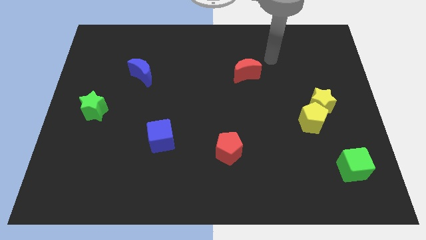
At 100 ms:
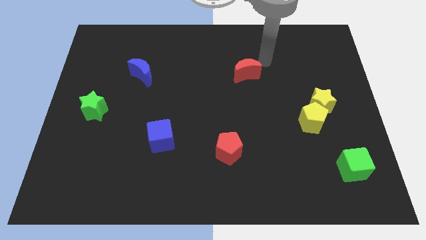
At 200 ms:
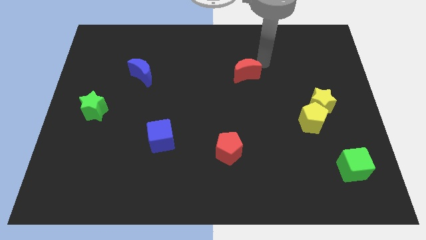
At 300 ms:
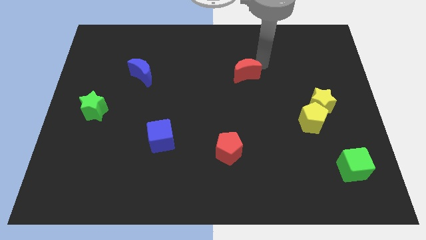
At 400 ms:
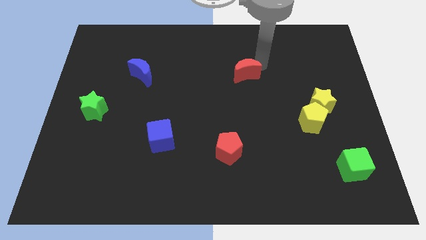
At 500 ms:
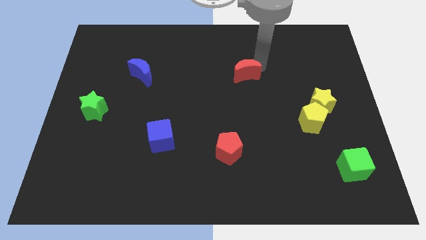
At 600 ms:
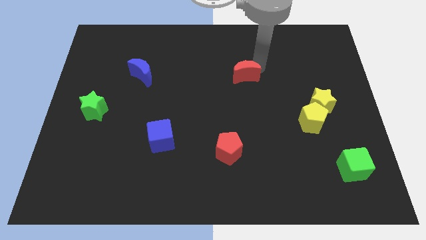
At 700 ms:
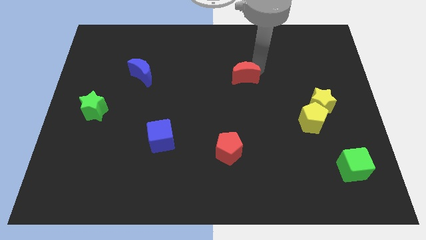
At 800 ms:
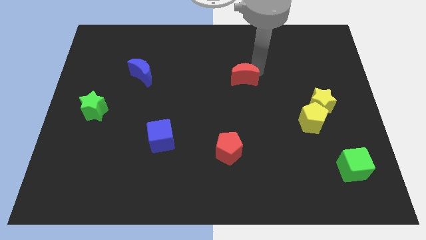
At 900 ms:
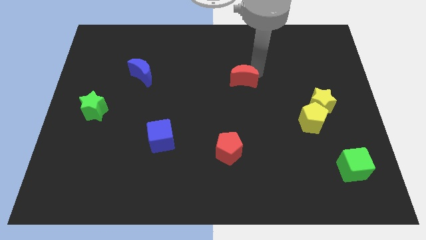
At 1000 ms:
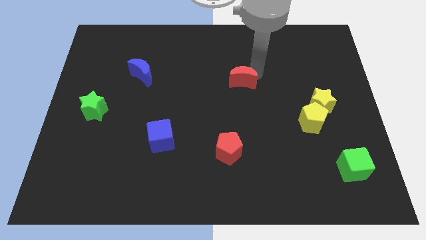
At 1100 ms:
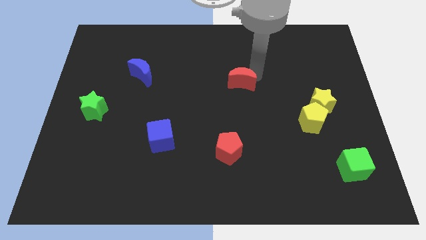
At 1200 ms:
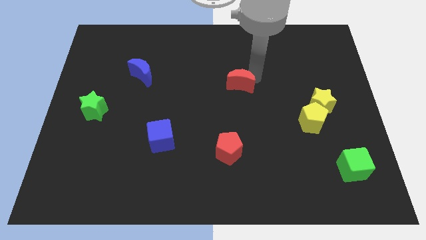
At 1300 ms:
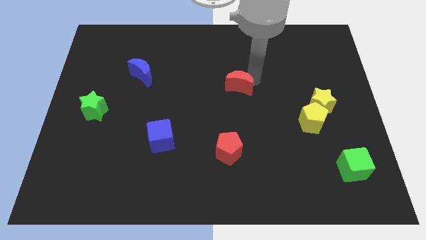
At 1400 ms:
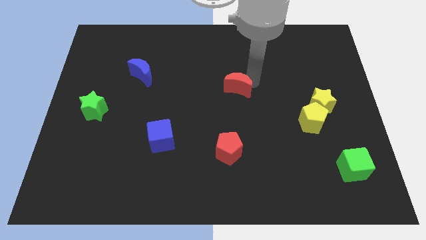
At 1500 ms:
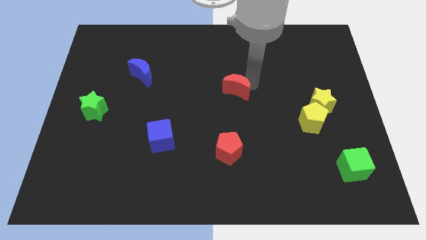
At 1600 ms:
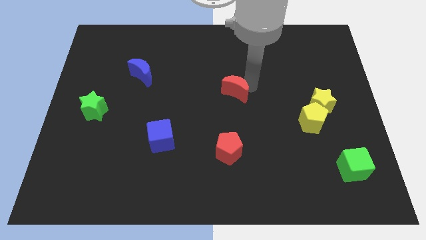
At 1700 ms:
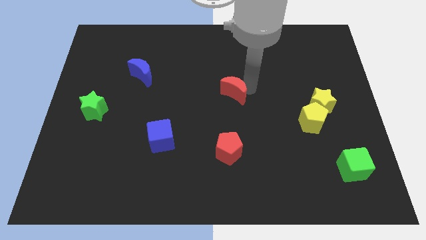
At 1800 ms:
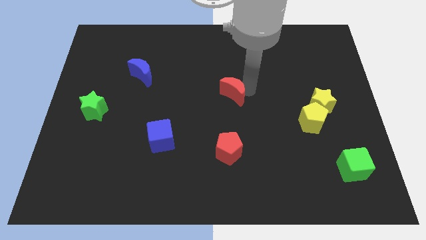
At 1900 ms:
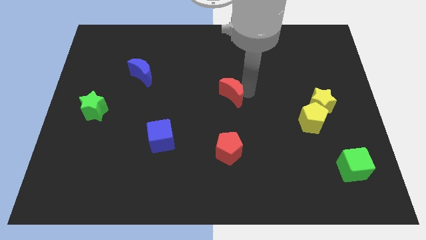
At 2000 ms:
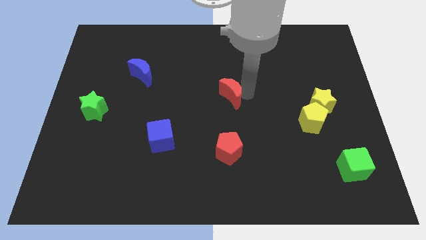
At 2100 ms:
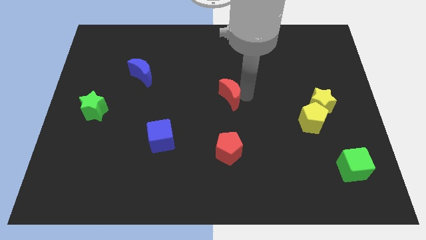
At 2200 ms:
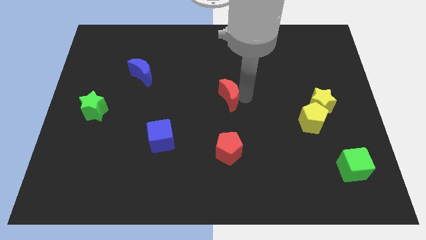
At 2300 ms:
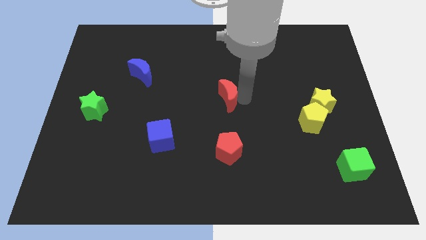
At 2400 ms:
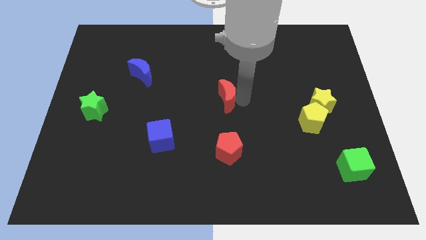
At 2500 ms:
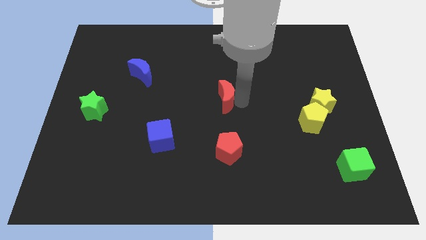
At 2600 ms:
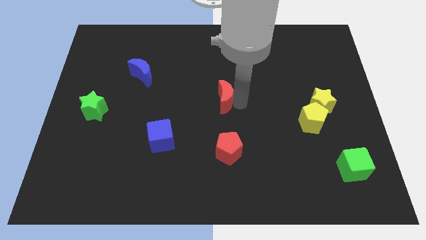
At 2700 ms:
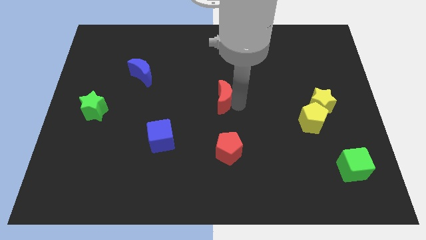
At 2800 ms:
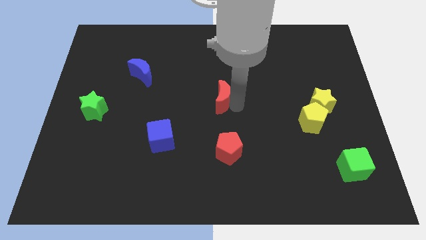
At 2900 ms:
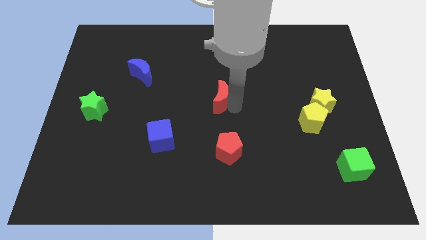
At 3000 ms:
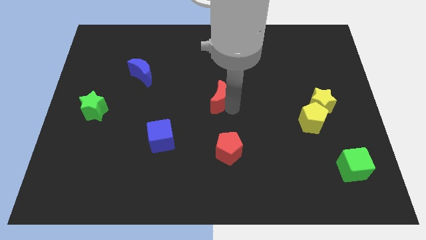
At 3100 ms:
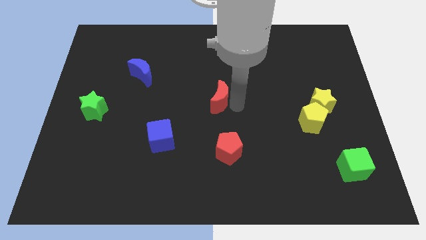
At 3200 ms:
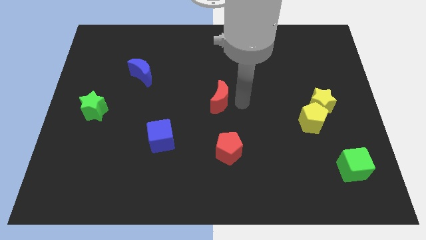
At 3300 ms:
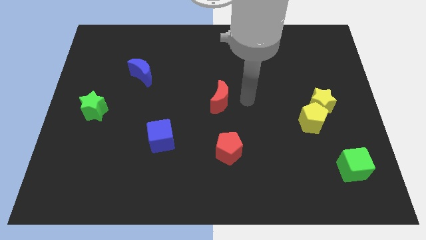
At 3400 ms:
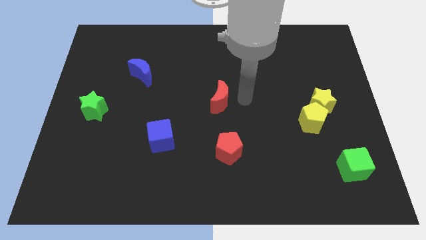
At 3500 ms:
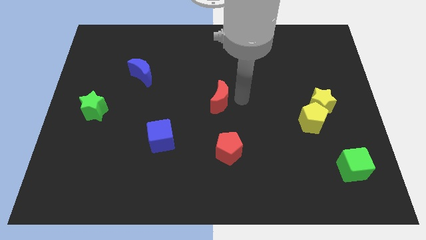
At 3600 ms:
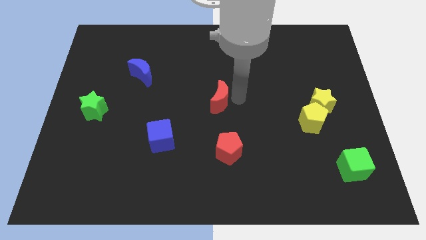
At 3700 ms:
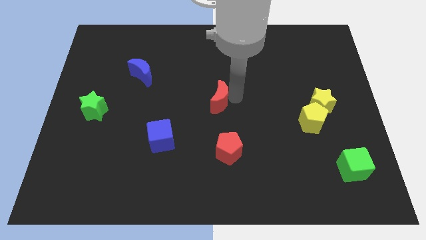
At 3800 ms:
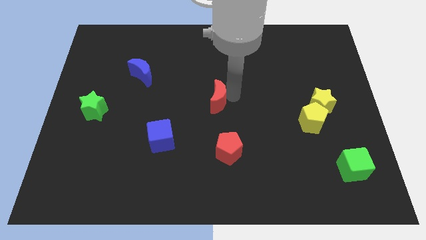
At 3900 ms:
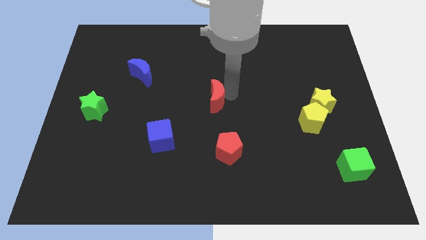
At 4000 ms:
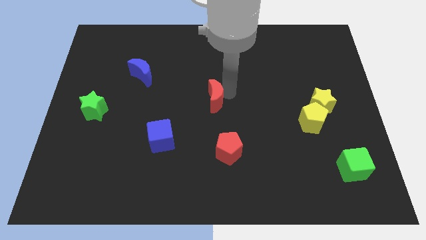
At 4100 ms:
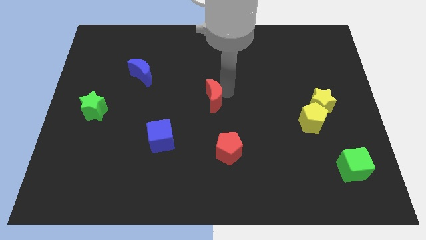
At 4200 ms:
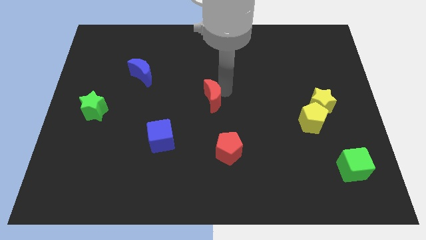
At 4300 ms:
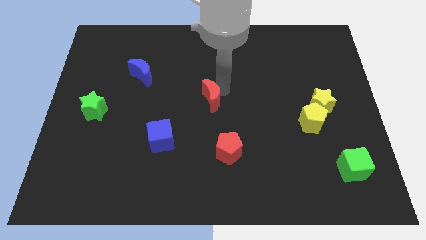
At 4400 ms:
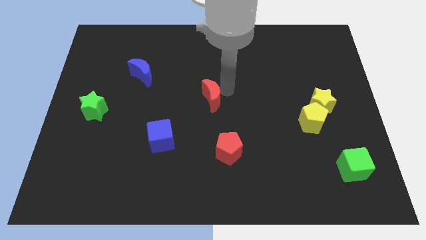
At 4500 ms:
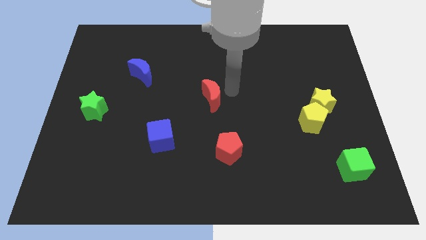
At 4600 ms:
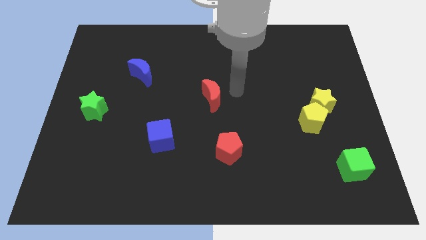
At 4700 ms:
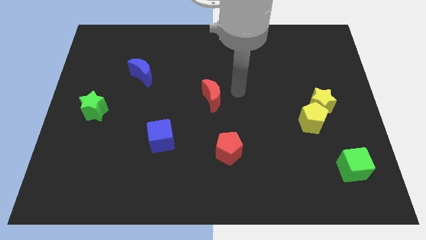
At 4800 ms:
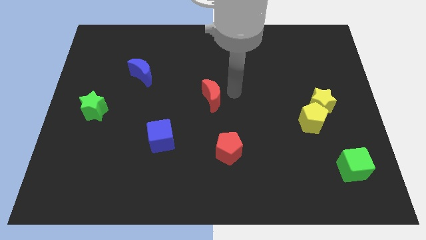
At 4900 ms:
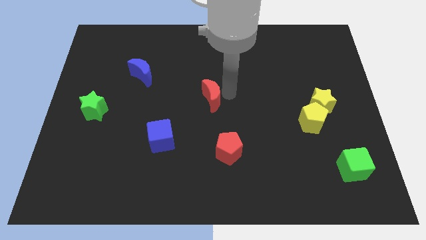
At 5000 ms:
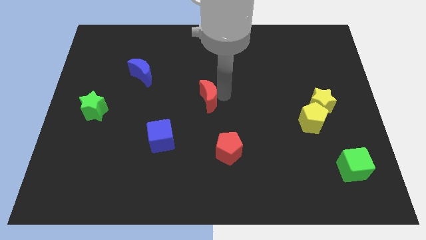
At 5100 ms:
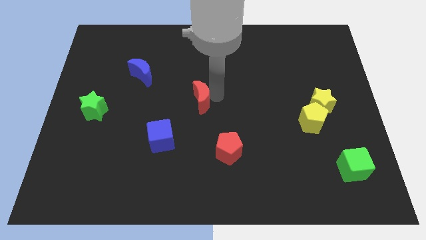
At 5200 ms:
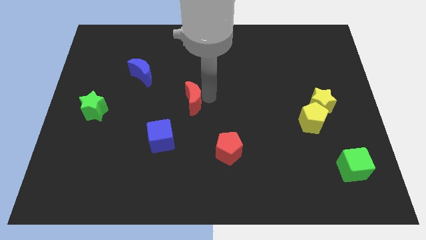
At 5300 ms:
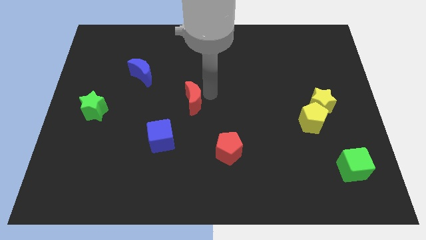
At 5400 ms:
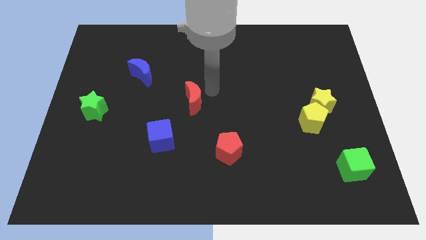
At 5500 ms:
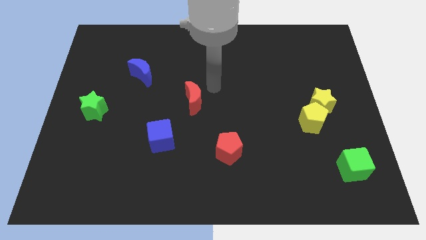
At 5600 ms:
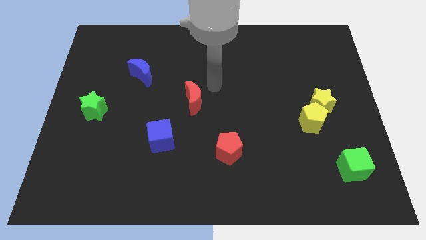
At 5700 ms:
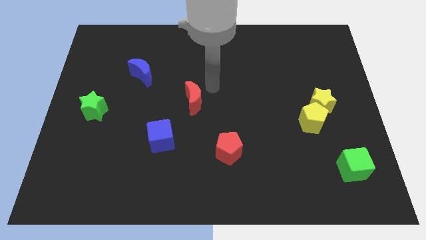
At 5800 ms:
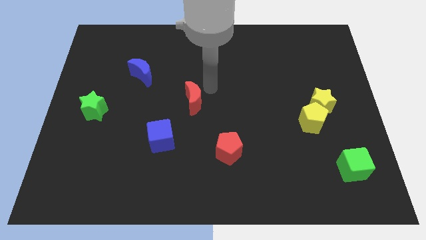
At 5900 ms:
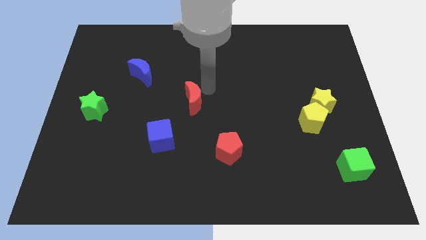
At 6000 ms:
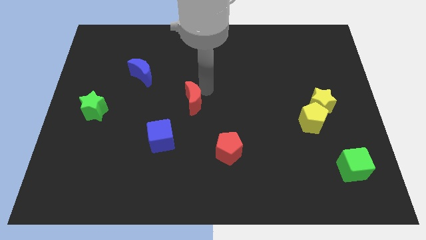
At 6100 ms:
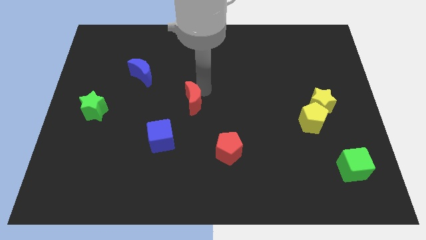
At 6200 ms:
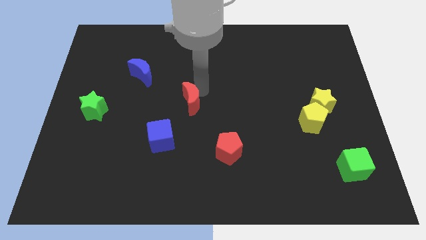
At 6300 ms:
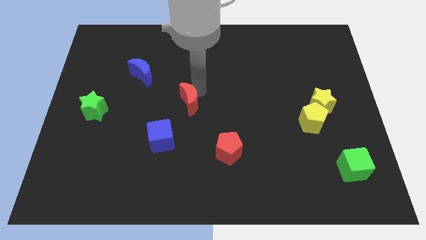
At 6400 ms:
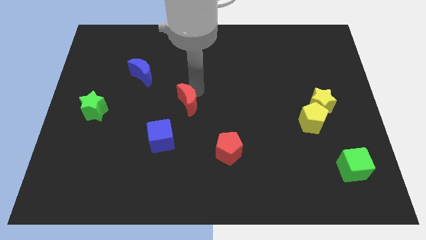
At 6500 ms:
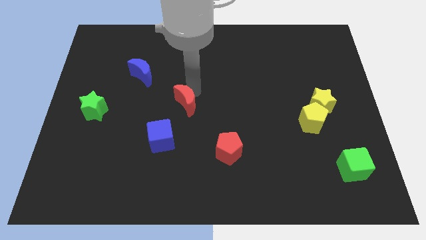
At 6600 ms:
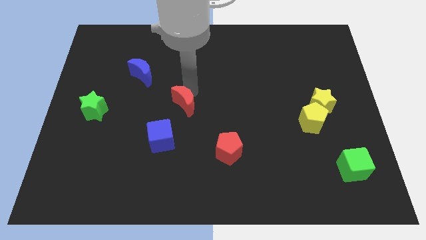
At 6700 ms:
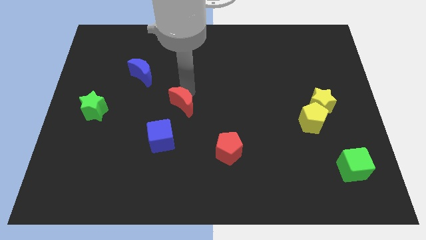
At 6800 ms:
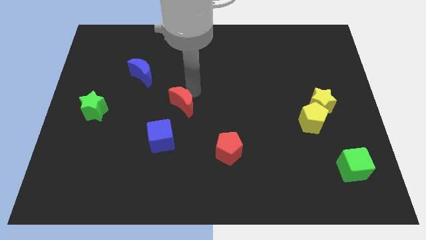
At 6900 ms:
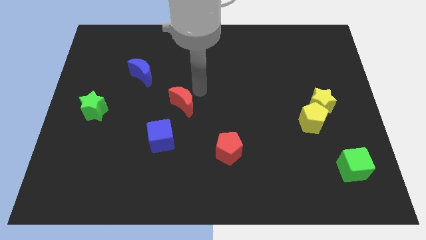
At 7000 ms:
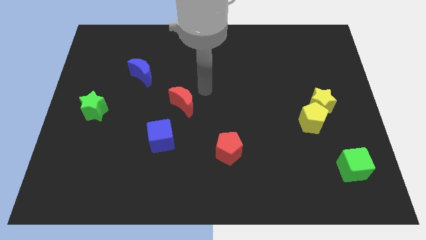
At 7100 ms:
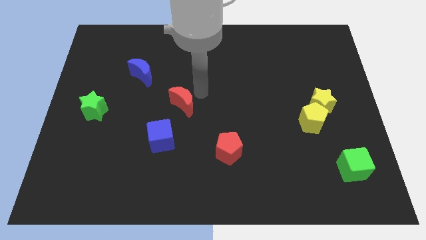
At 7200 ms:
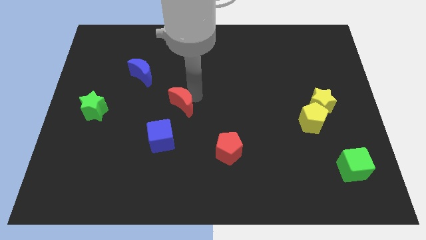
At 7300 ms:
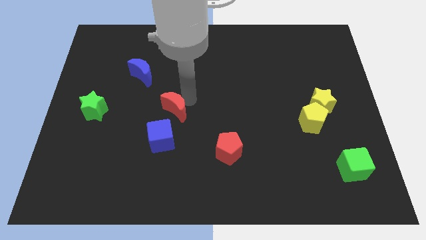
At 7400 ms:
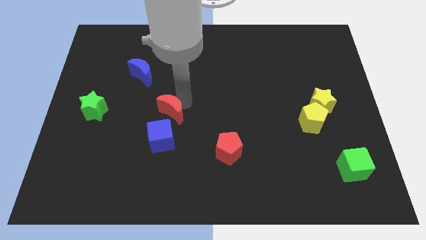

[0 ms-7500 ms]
push the red moon downwards and left

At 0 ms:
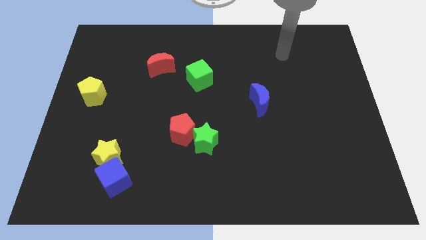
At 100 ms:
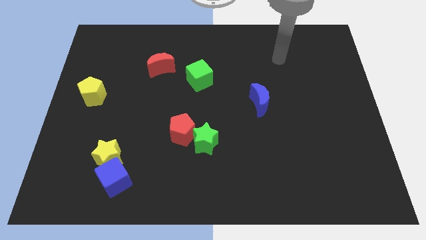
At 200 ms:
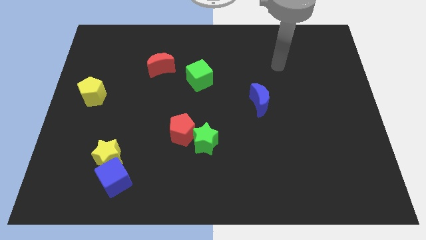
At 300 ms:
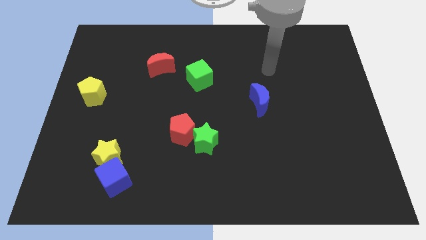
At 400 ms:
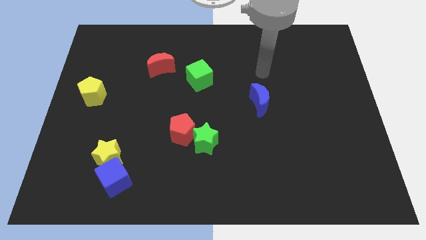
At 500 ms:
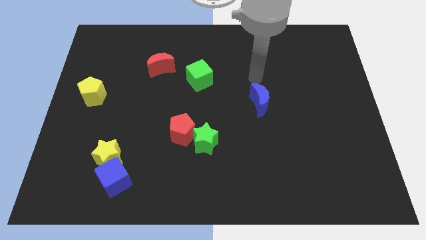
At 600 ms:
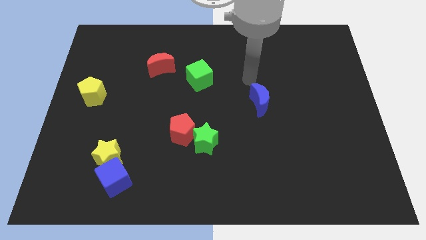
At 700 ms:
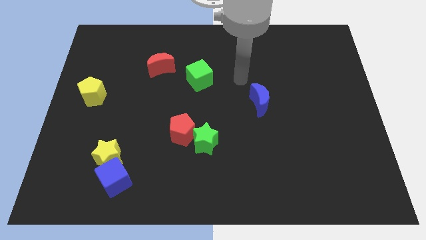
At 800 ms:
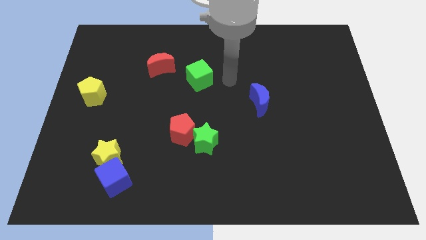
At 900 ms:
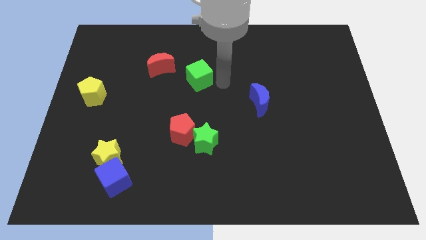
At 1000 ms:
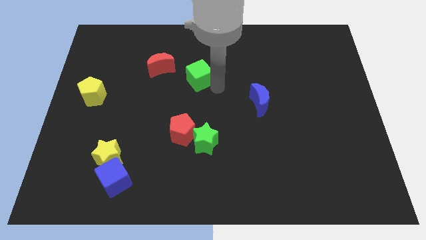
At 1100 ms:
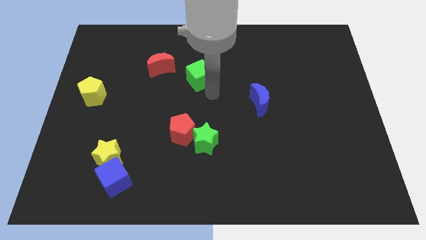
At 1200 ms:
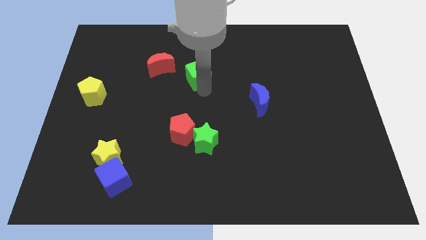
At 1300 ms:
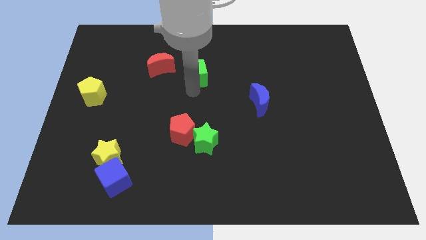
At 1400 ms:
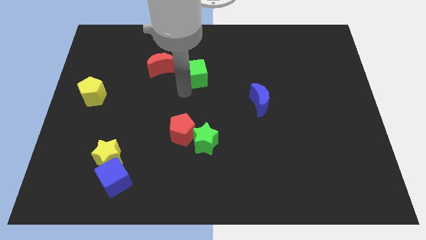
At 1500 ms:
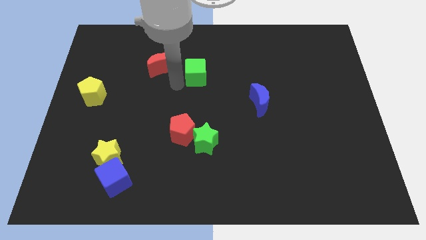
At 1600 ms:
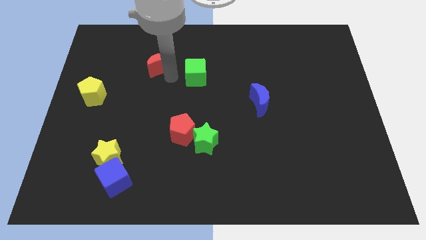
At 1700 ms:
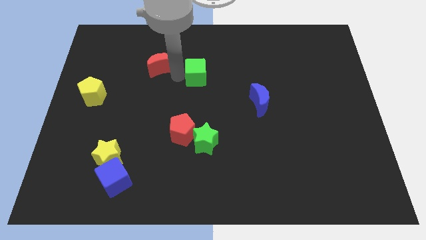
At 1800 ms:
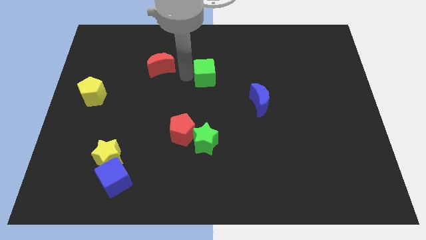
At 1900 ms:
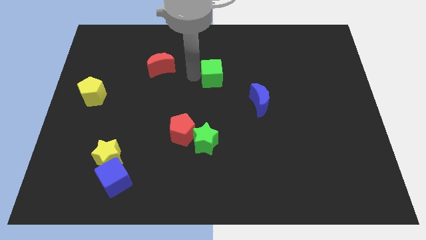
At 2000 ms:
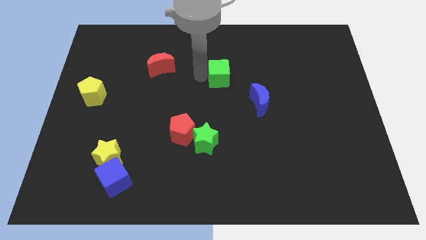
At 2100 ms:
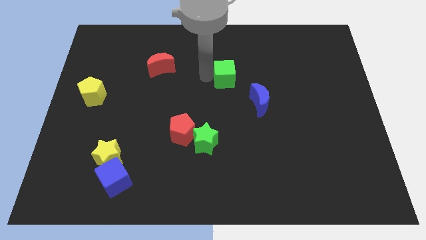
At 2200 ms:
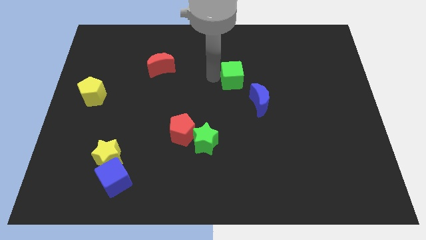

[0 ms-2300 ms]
slide the green cube a bit to the right
